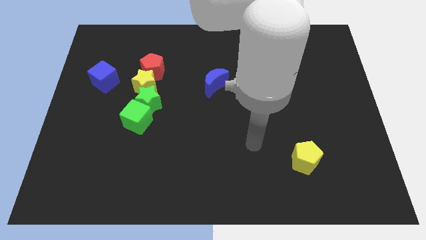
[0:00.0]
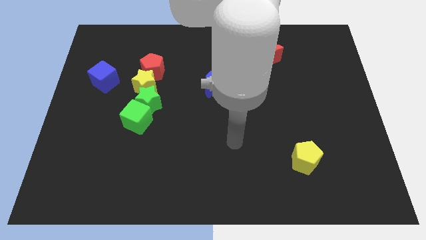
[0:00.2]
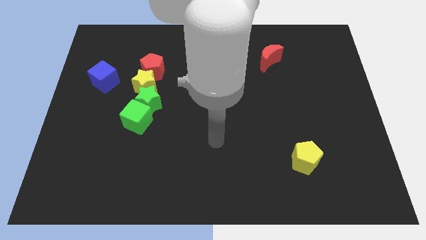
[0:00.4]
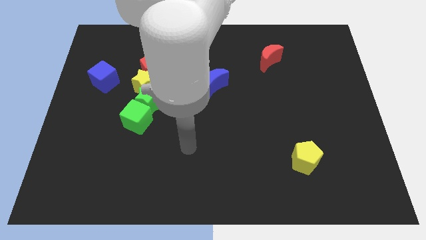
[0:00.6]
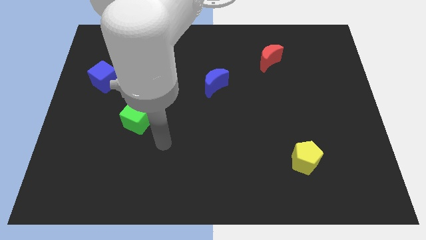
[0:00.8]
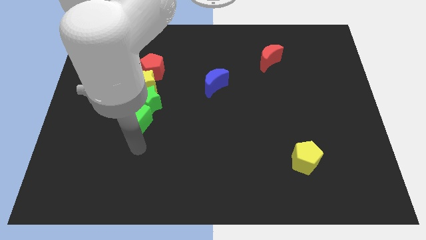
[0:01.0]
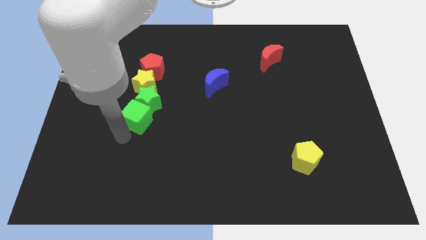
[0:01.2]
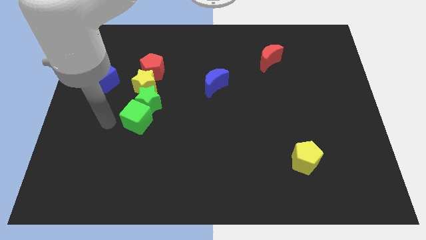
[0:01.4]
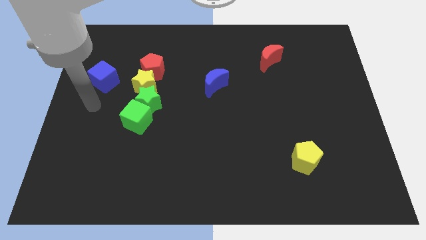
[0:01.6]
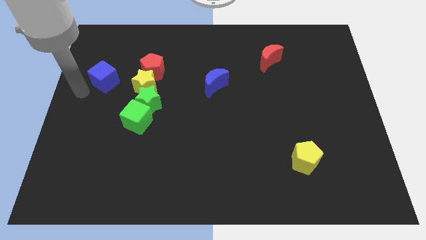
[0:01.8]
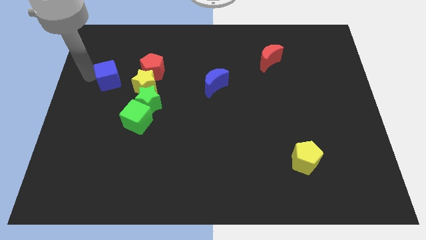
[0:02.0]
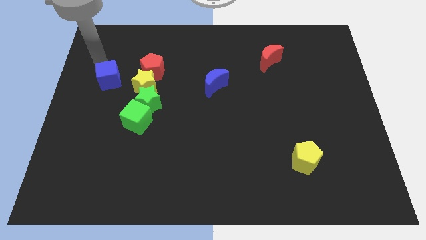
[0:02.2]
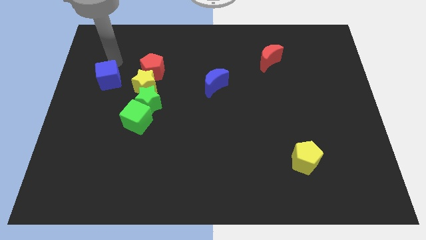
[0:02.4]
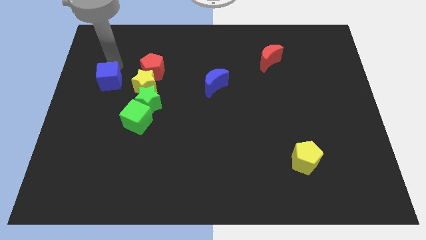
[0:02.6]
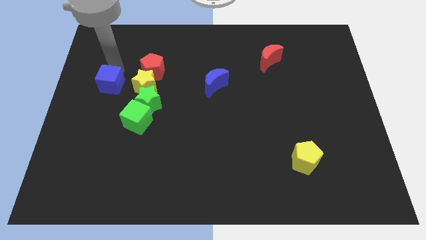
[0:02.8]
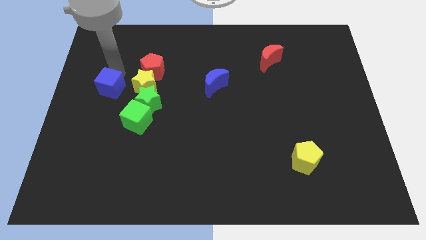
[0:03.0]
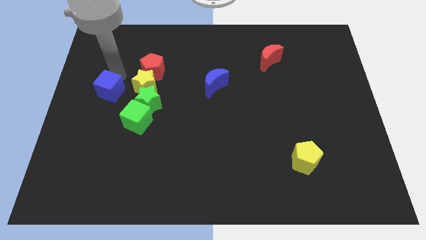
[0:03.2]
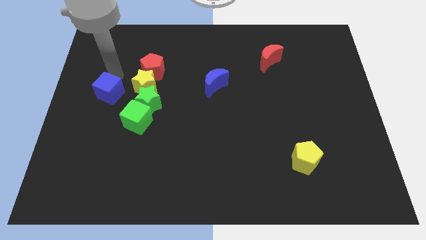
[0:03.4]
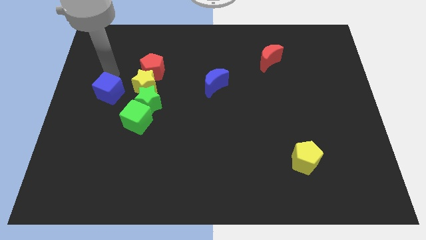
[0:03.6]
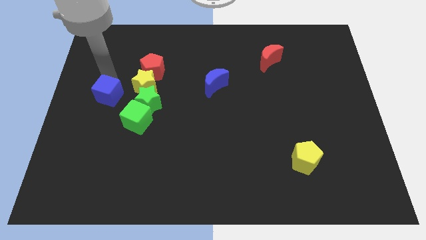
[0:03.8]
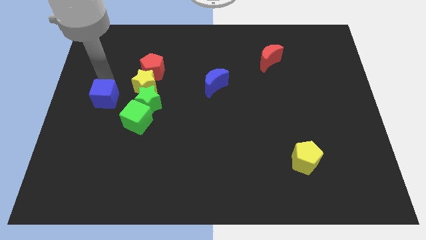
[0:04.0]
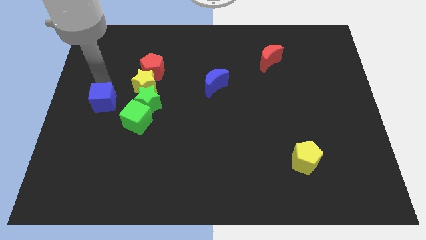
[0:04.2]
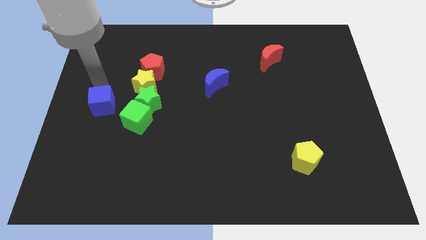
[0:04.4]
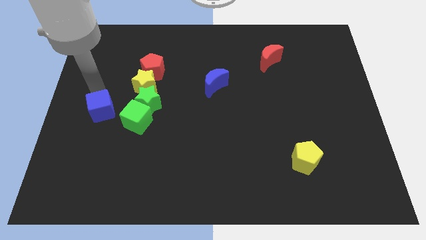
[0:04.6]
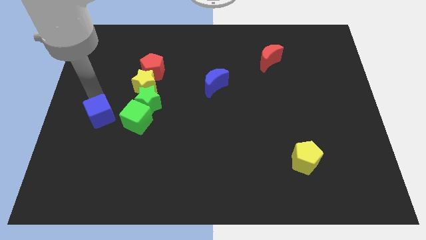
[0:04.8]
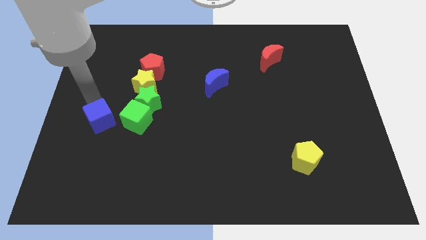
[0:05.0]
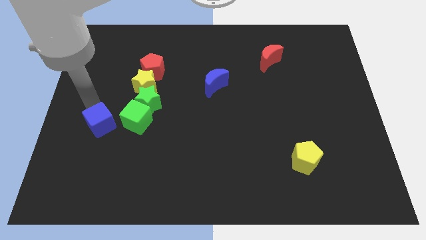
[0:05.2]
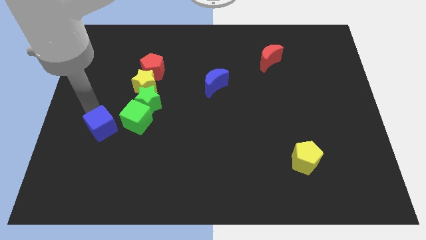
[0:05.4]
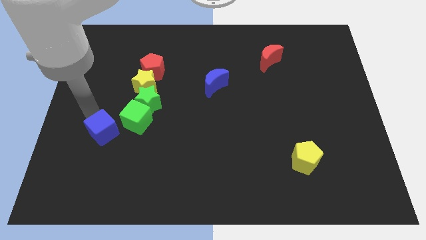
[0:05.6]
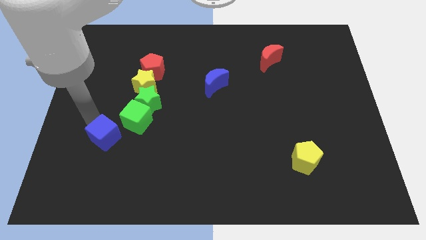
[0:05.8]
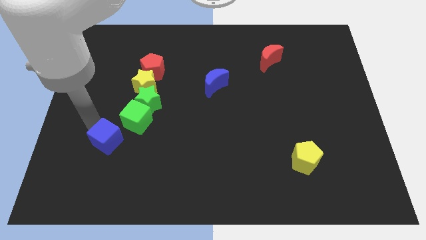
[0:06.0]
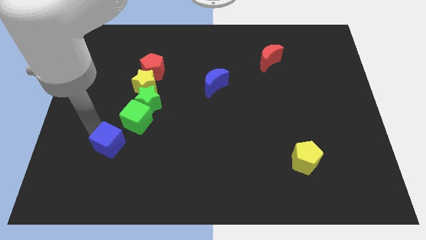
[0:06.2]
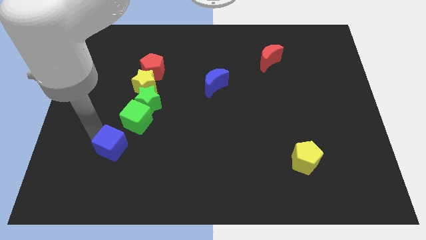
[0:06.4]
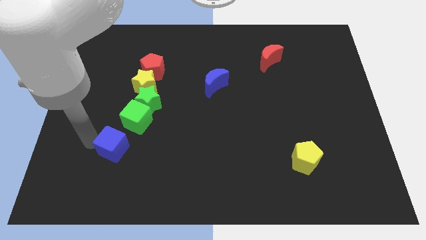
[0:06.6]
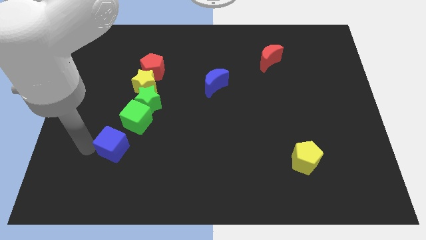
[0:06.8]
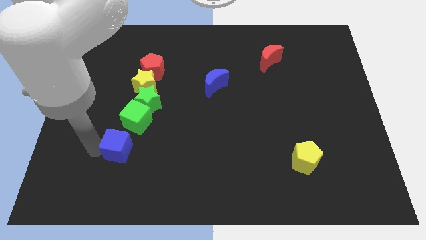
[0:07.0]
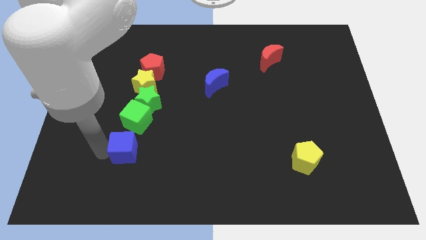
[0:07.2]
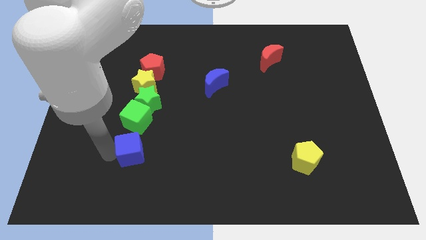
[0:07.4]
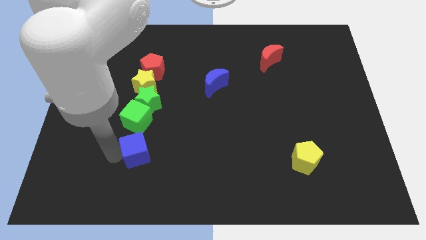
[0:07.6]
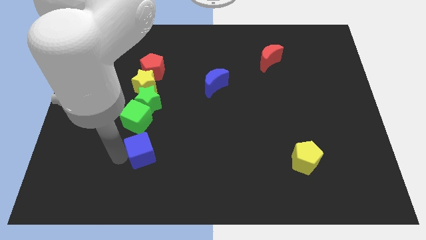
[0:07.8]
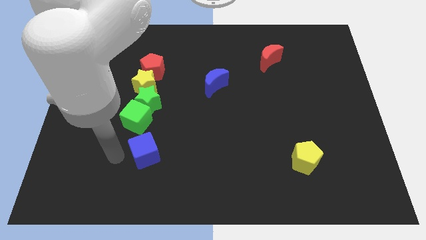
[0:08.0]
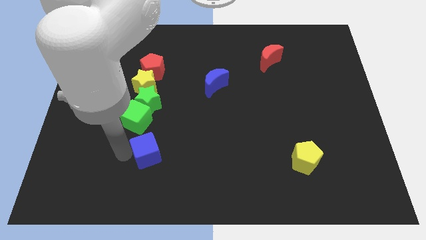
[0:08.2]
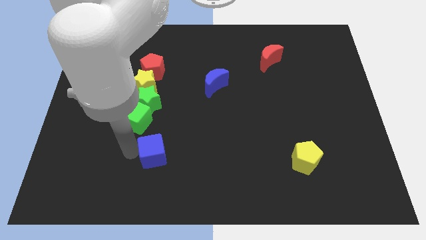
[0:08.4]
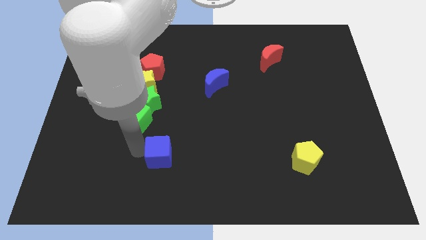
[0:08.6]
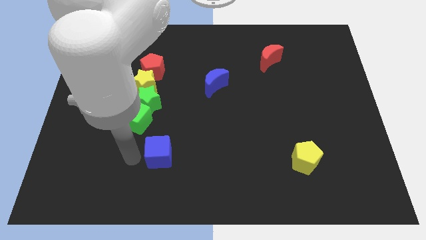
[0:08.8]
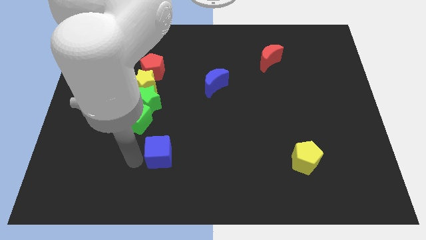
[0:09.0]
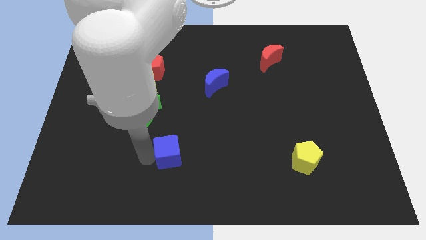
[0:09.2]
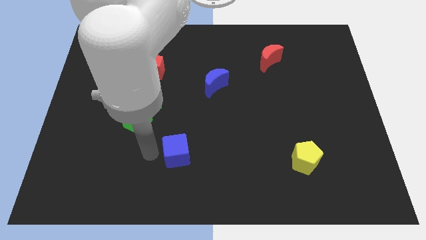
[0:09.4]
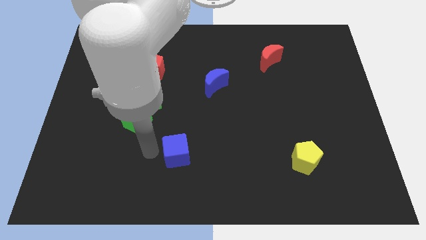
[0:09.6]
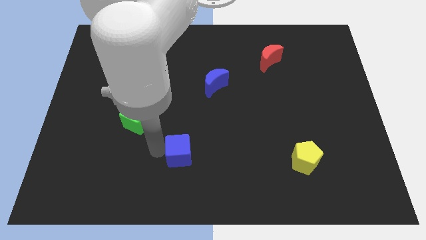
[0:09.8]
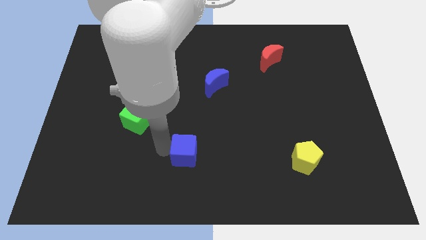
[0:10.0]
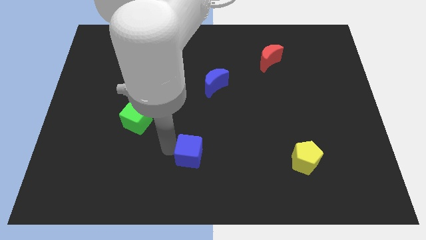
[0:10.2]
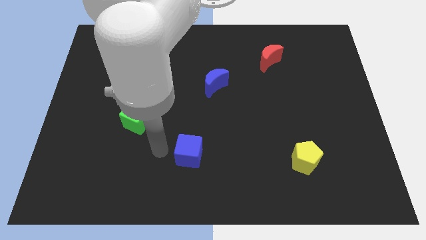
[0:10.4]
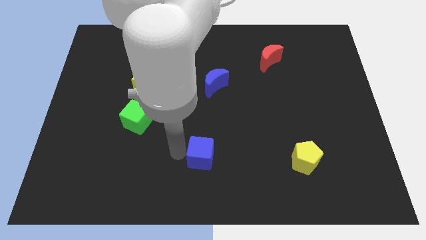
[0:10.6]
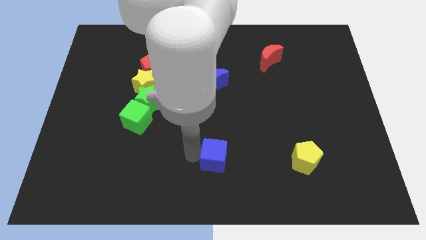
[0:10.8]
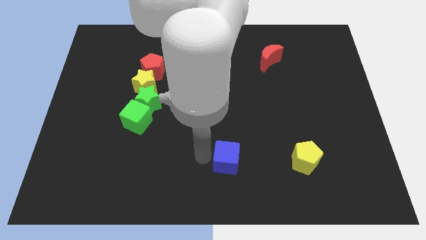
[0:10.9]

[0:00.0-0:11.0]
put the blue cube just left of the yellow pentagon
